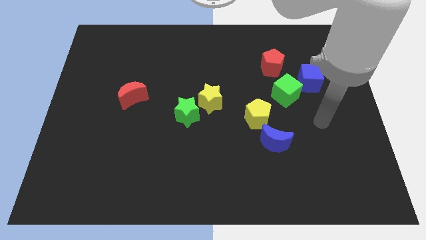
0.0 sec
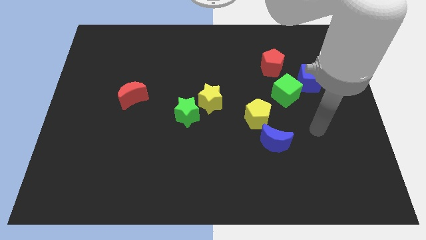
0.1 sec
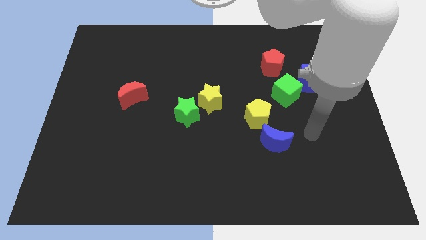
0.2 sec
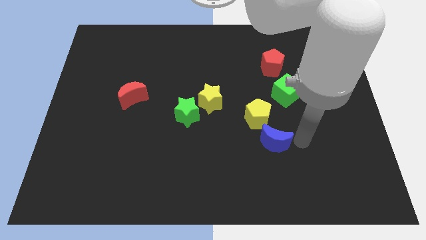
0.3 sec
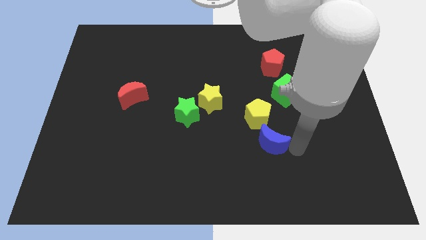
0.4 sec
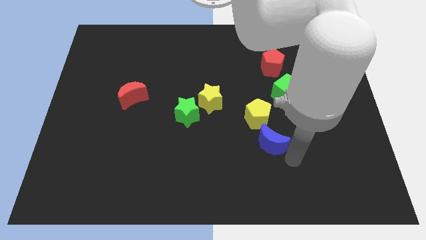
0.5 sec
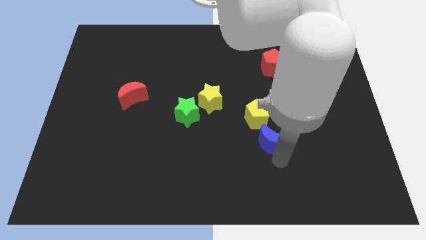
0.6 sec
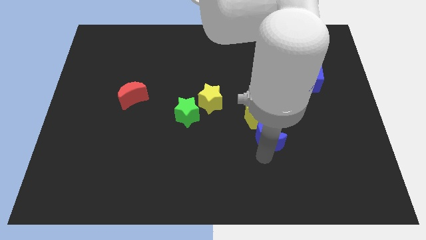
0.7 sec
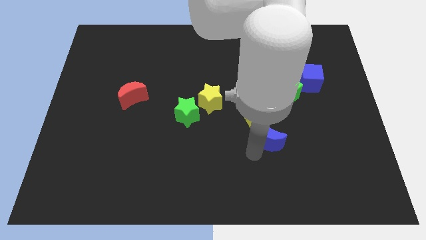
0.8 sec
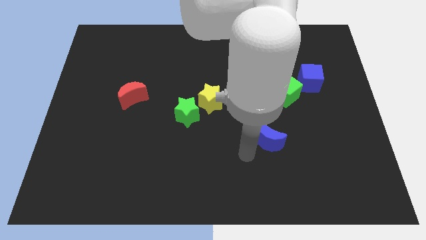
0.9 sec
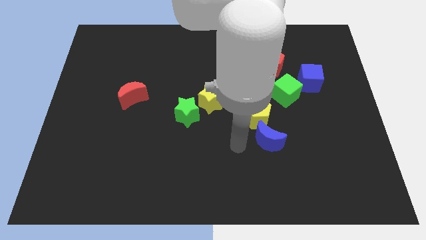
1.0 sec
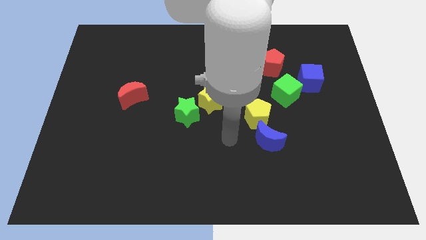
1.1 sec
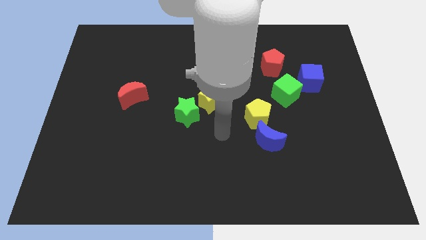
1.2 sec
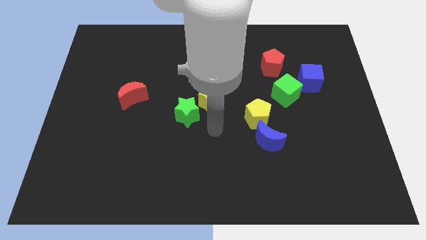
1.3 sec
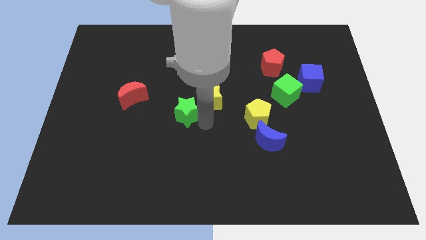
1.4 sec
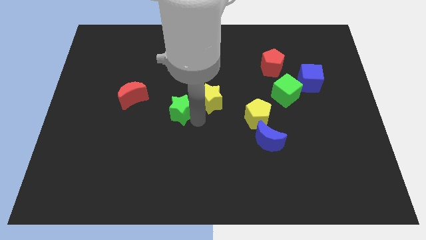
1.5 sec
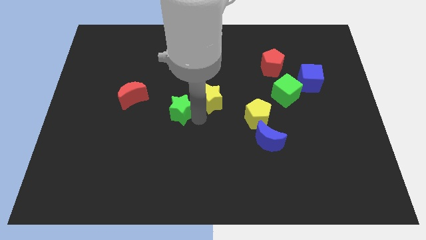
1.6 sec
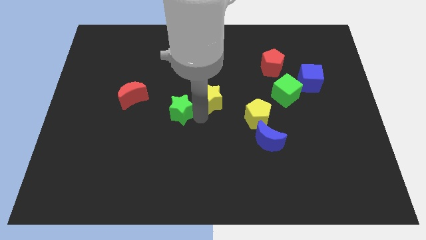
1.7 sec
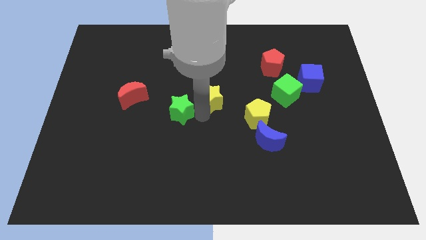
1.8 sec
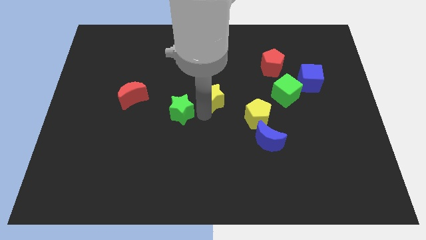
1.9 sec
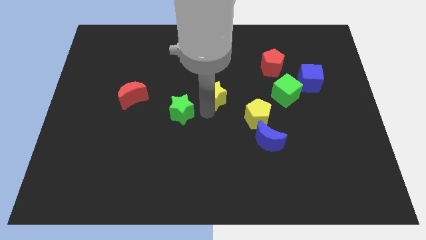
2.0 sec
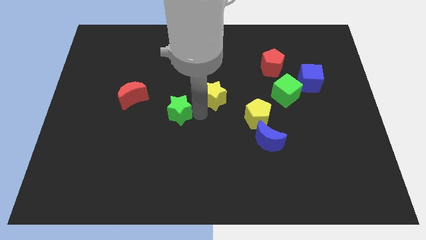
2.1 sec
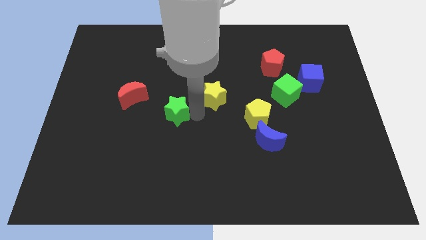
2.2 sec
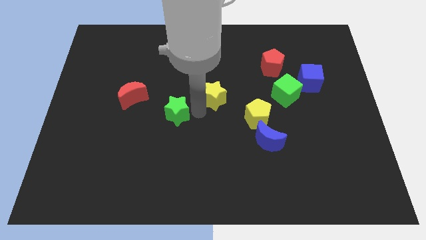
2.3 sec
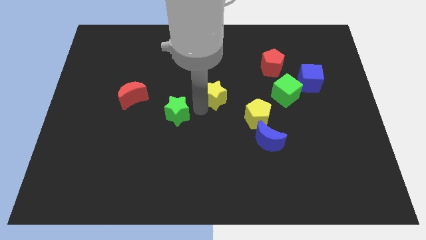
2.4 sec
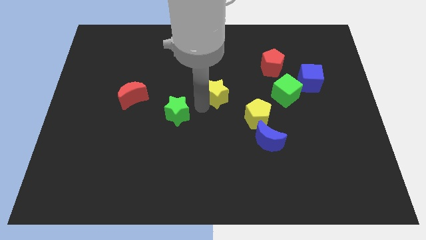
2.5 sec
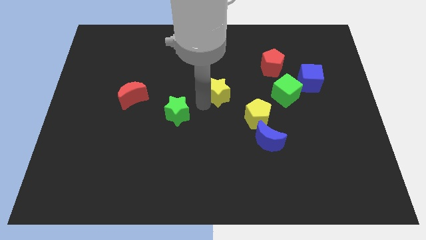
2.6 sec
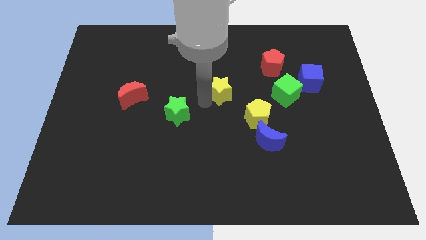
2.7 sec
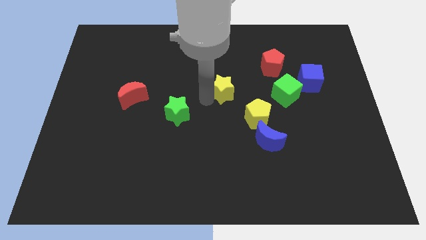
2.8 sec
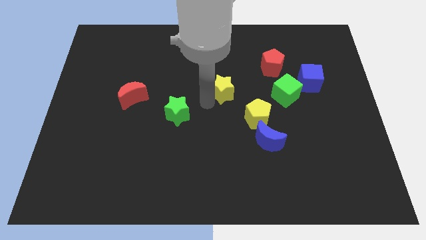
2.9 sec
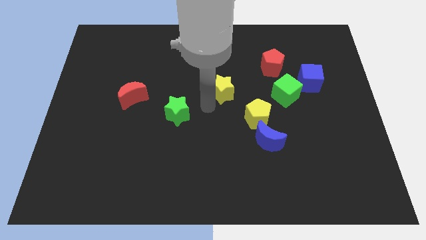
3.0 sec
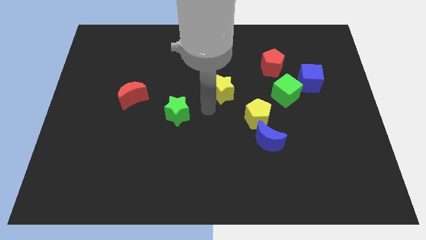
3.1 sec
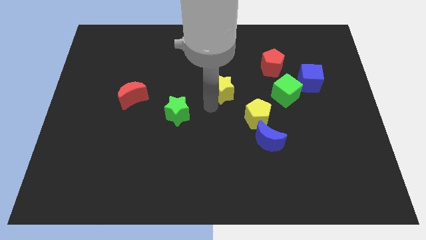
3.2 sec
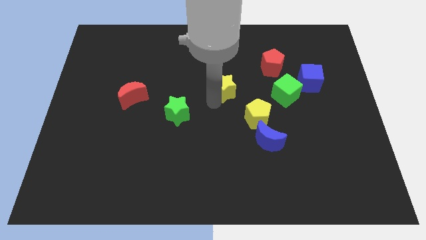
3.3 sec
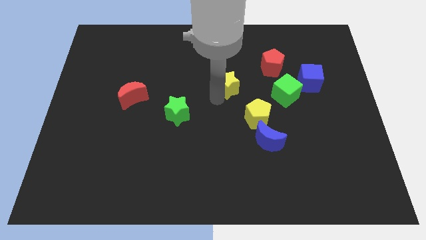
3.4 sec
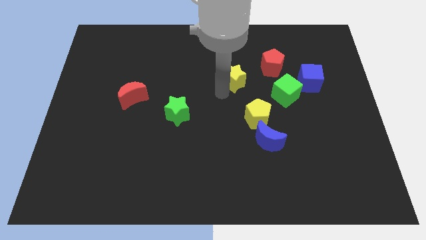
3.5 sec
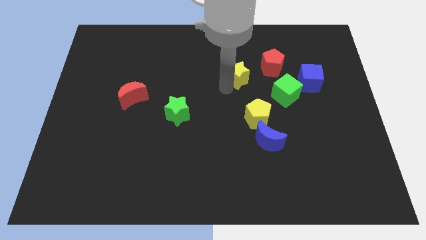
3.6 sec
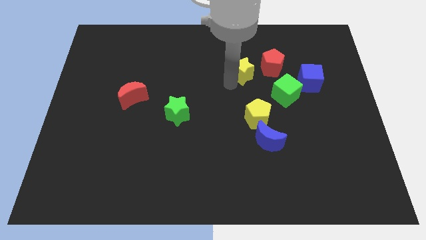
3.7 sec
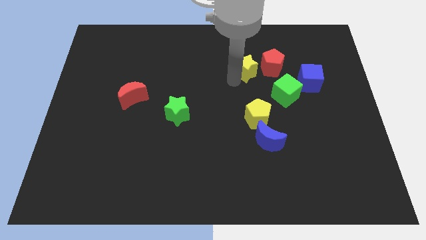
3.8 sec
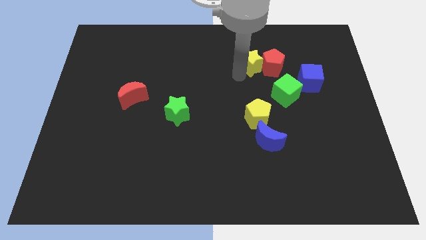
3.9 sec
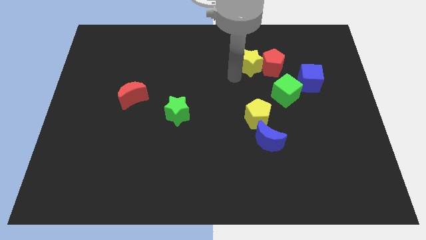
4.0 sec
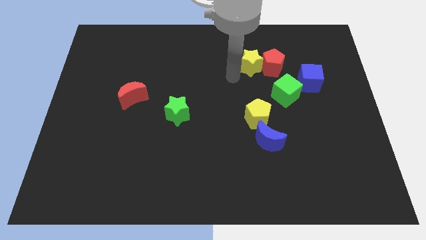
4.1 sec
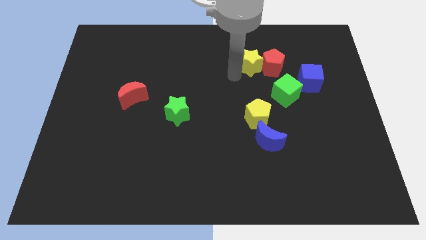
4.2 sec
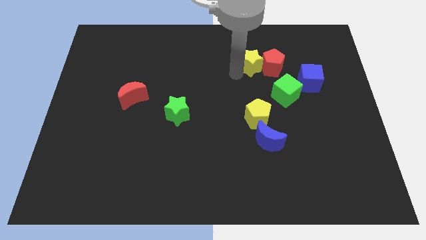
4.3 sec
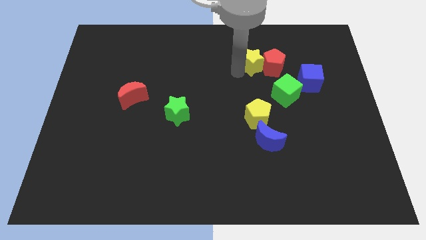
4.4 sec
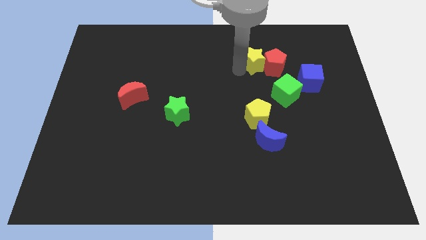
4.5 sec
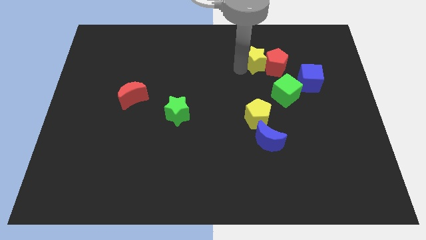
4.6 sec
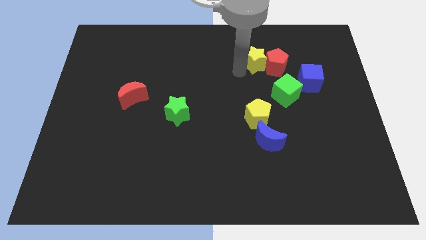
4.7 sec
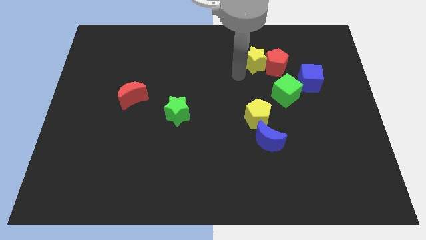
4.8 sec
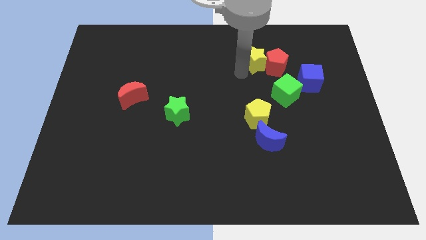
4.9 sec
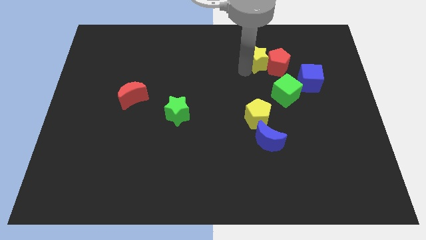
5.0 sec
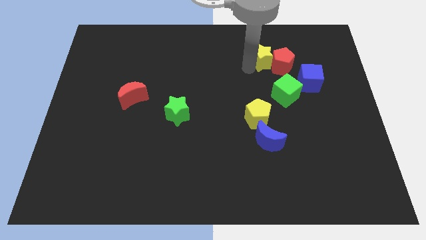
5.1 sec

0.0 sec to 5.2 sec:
slide the yellow star to the top side of the green cube

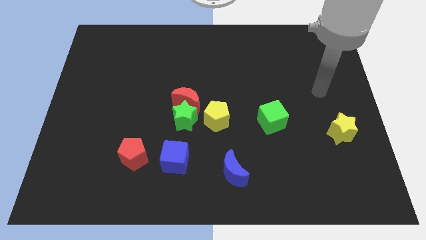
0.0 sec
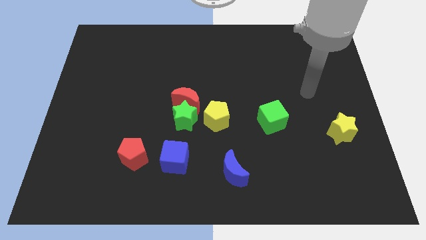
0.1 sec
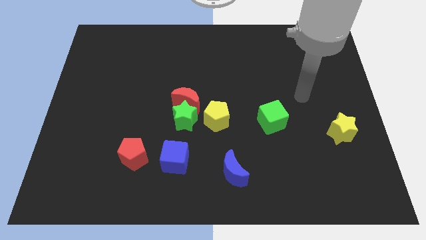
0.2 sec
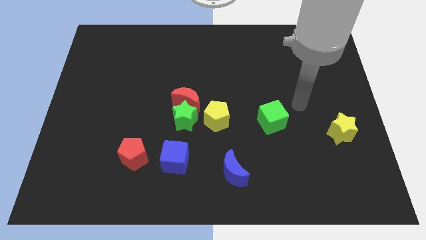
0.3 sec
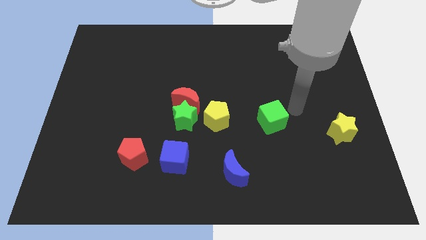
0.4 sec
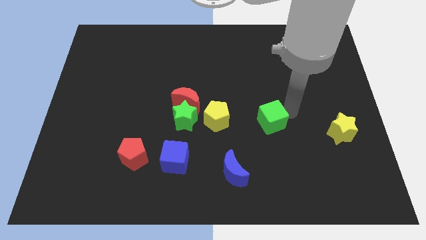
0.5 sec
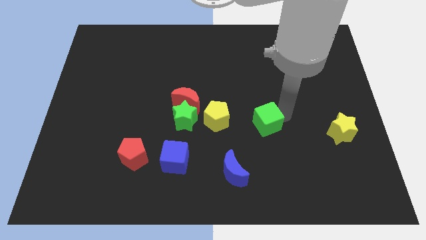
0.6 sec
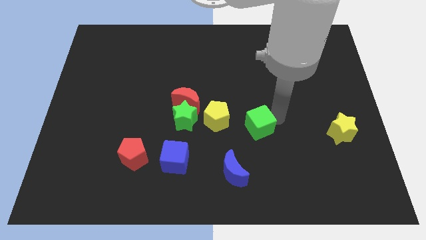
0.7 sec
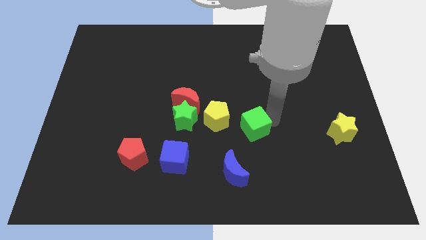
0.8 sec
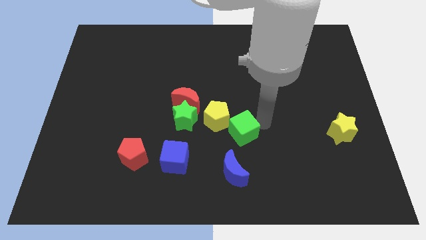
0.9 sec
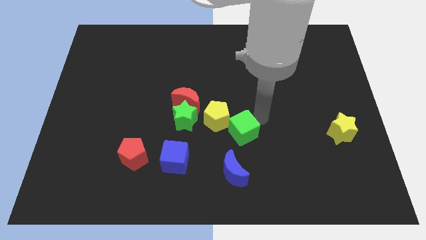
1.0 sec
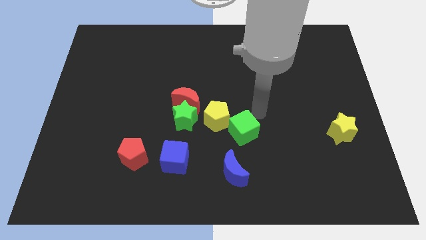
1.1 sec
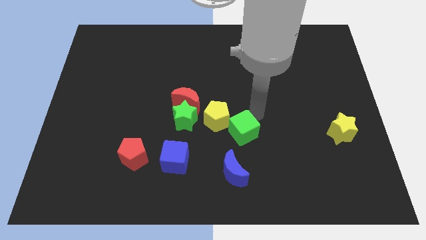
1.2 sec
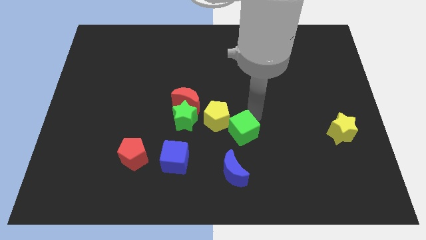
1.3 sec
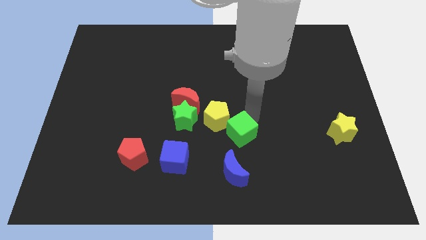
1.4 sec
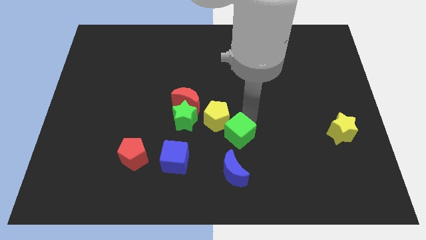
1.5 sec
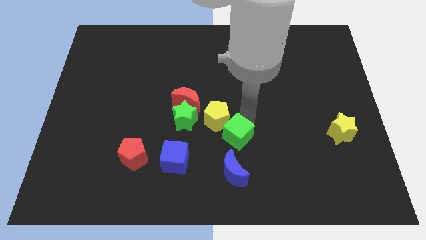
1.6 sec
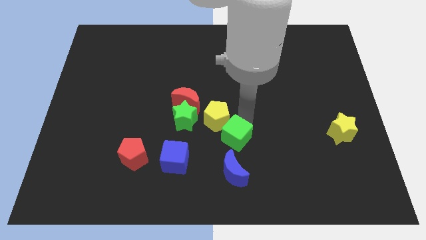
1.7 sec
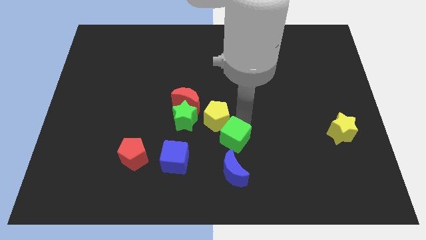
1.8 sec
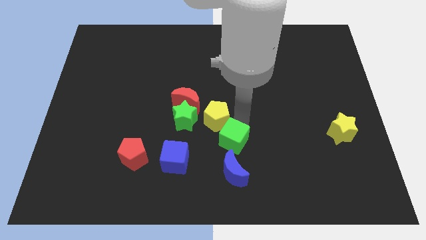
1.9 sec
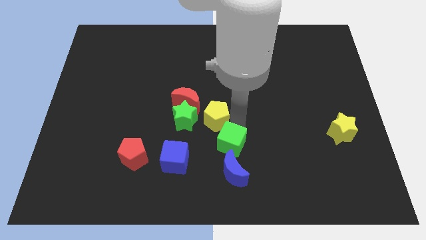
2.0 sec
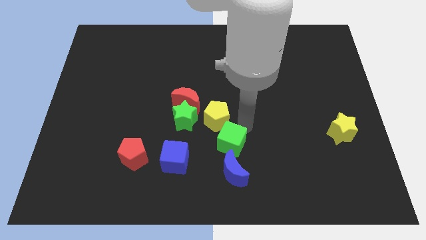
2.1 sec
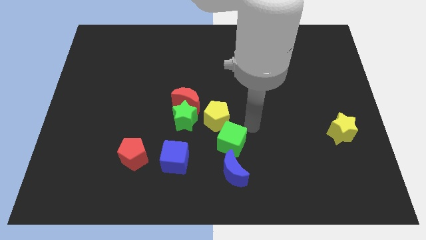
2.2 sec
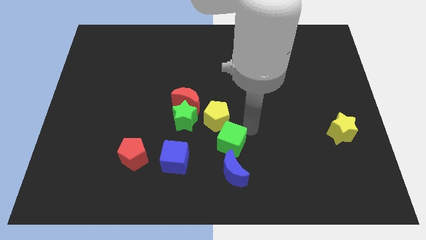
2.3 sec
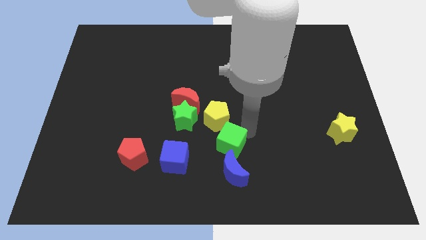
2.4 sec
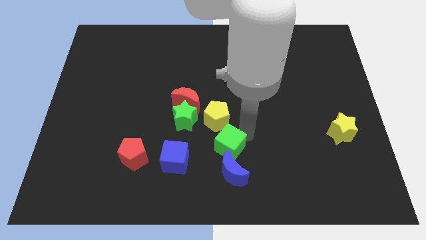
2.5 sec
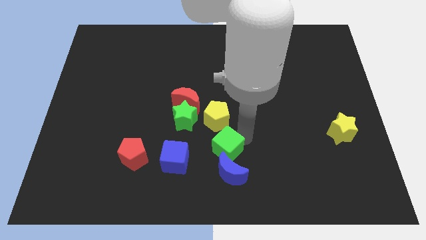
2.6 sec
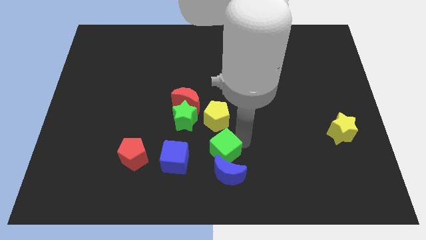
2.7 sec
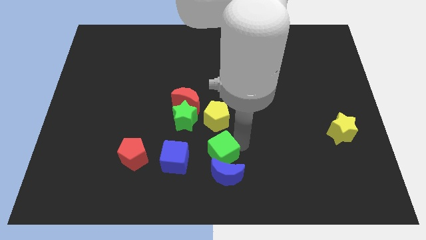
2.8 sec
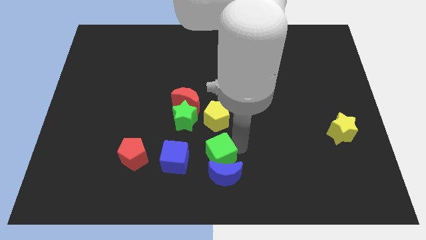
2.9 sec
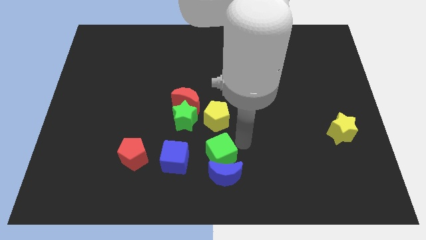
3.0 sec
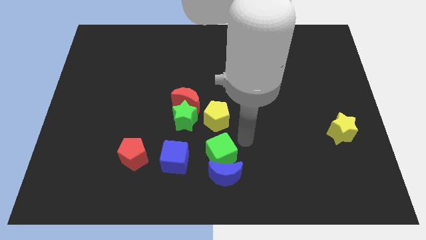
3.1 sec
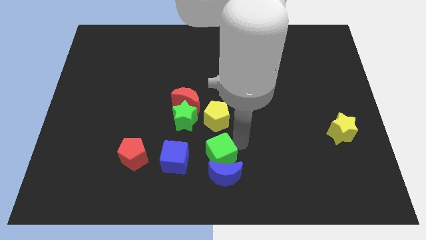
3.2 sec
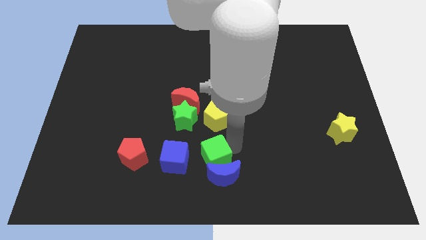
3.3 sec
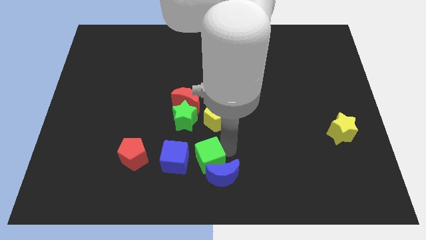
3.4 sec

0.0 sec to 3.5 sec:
push the green cube to the left side of the blue moon
